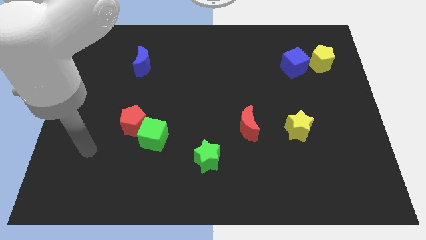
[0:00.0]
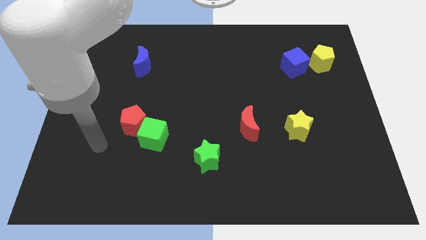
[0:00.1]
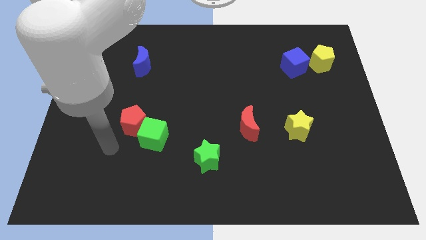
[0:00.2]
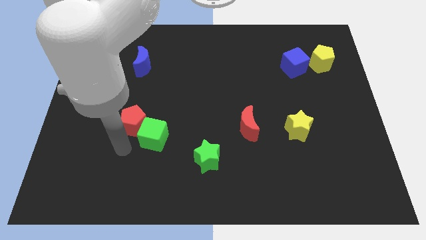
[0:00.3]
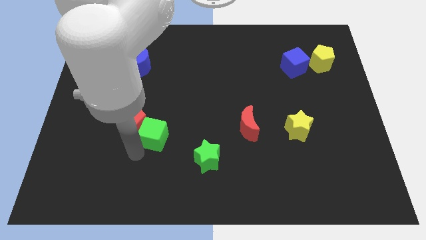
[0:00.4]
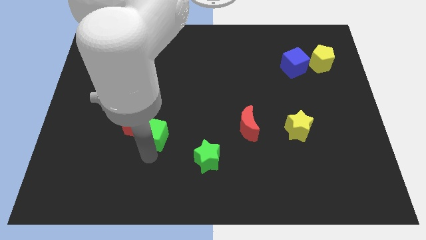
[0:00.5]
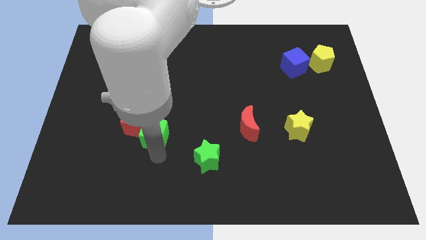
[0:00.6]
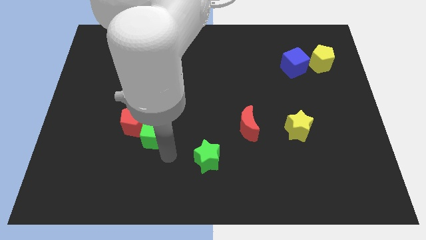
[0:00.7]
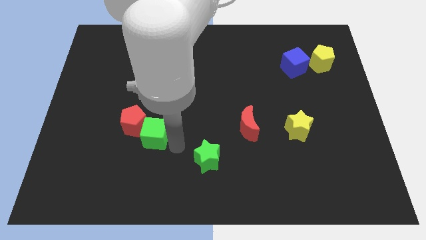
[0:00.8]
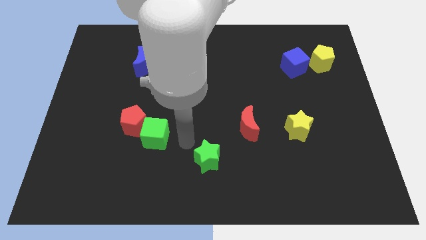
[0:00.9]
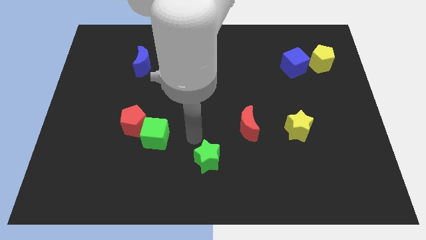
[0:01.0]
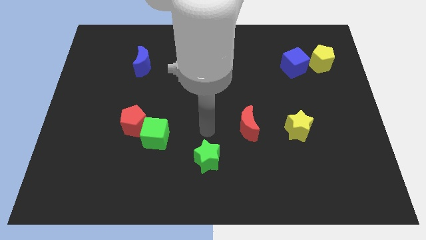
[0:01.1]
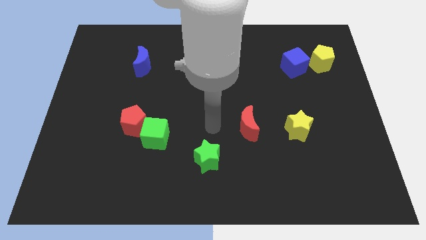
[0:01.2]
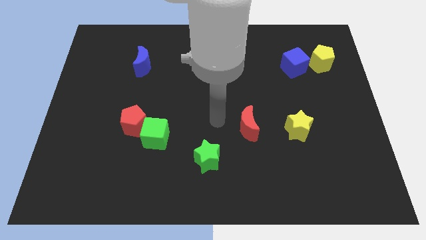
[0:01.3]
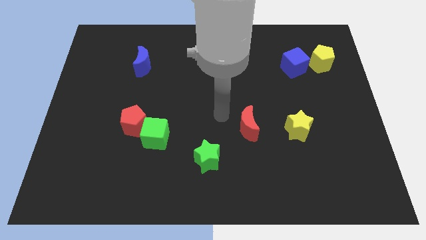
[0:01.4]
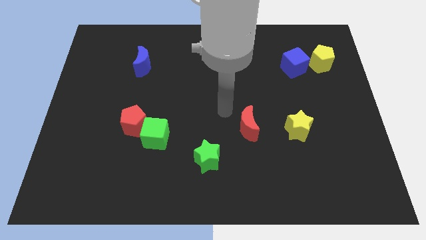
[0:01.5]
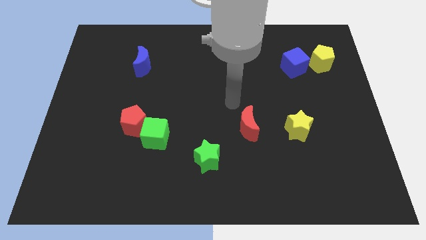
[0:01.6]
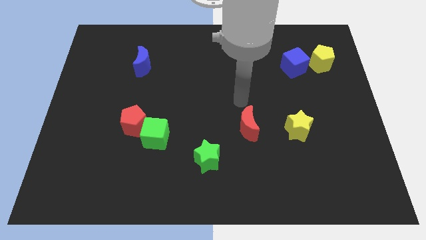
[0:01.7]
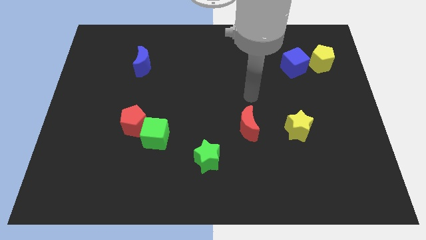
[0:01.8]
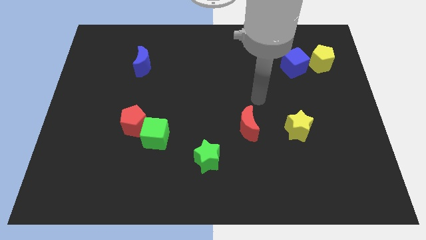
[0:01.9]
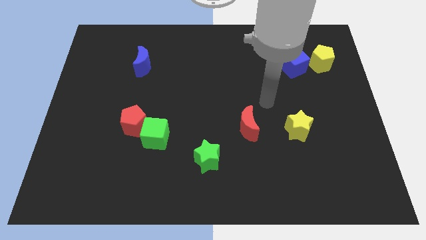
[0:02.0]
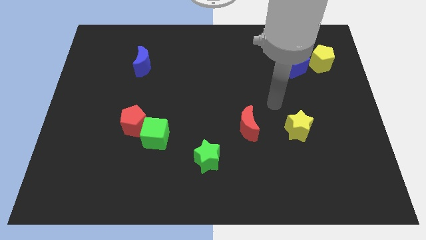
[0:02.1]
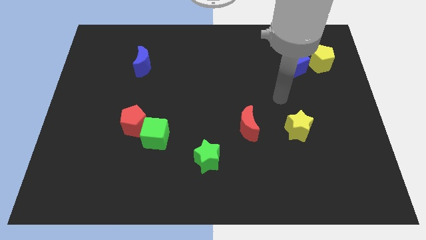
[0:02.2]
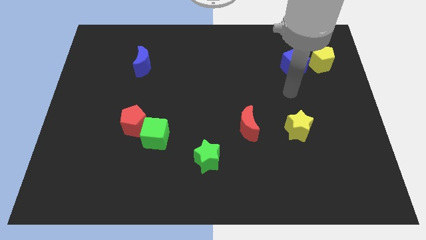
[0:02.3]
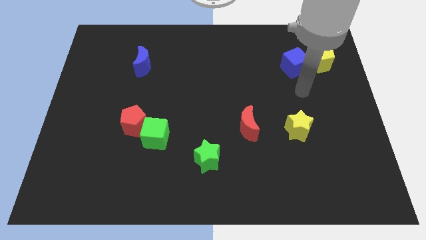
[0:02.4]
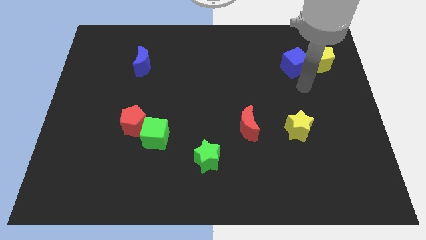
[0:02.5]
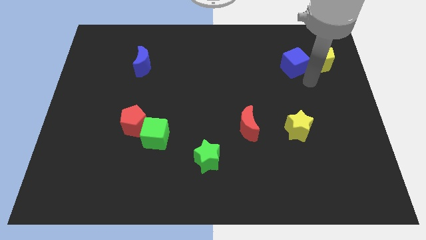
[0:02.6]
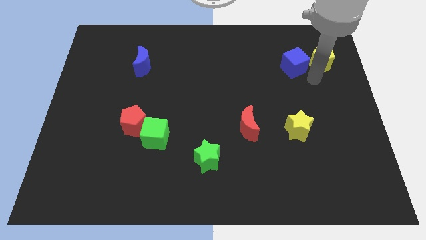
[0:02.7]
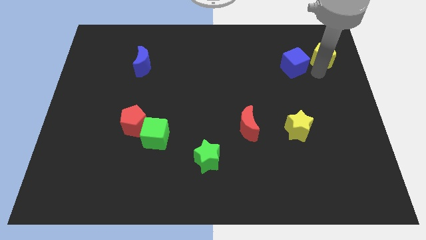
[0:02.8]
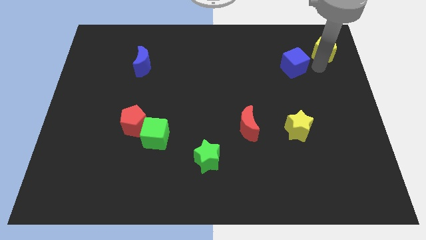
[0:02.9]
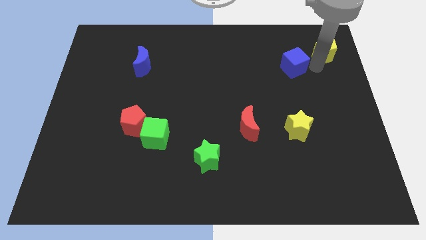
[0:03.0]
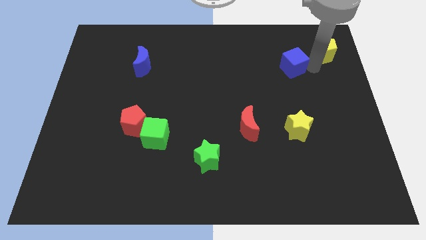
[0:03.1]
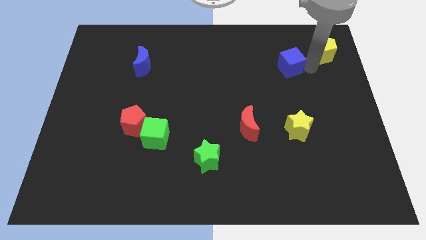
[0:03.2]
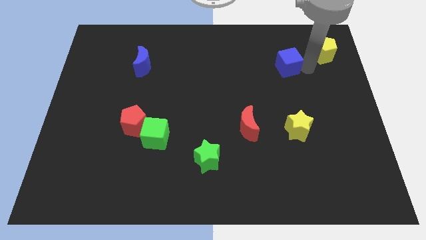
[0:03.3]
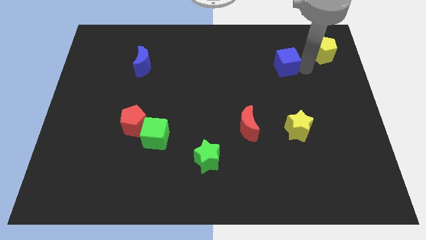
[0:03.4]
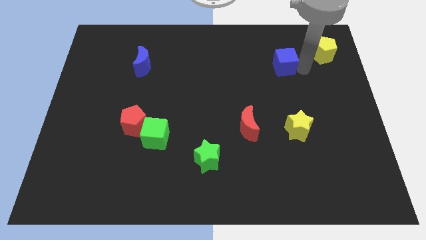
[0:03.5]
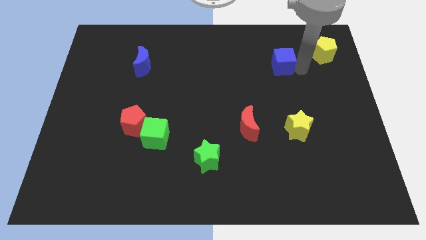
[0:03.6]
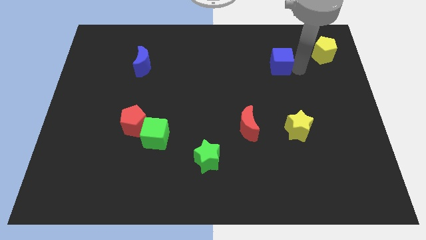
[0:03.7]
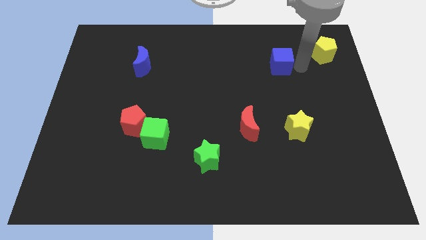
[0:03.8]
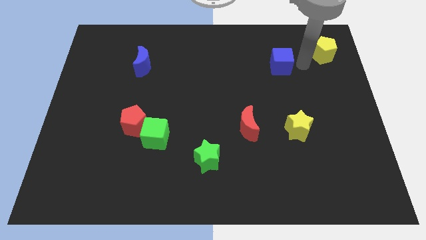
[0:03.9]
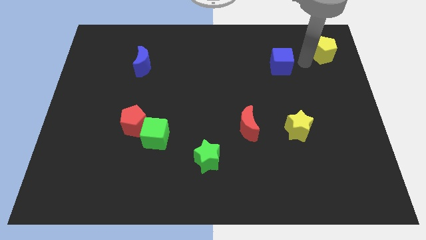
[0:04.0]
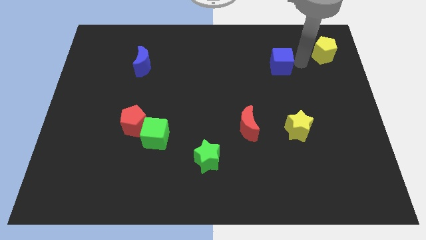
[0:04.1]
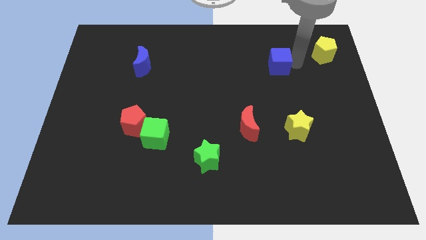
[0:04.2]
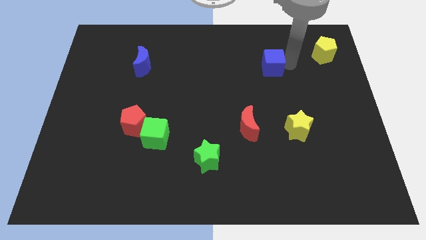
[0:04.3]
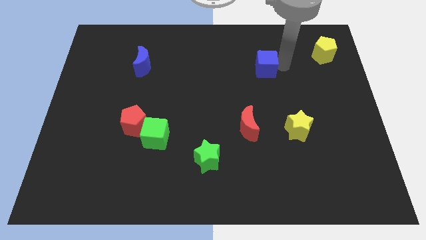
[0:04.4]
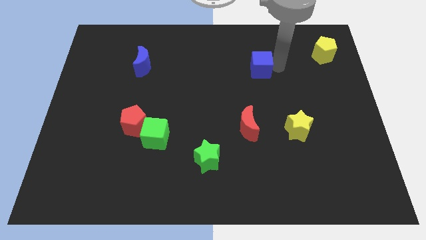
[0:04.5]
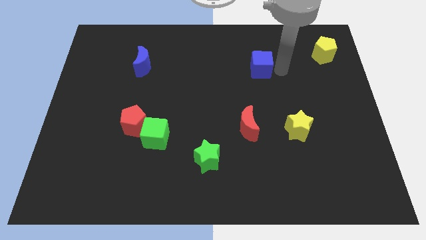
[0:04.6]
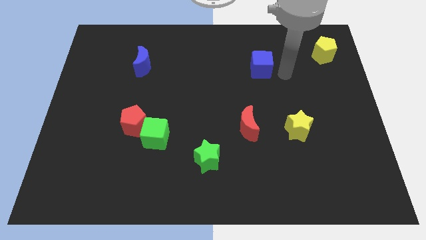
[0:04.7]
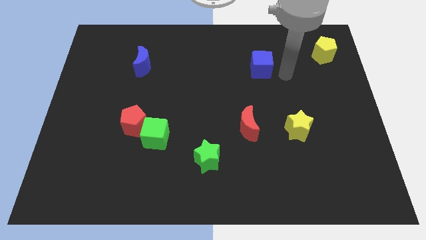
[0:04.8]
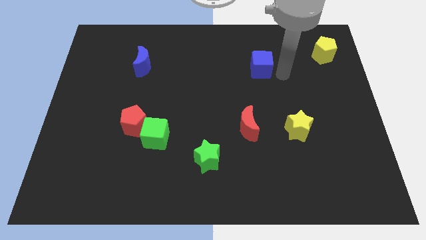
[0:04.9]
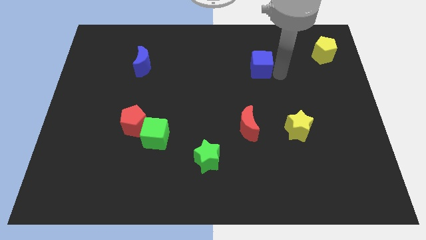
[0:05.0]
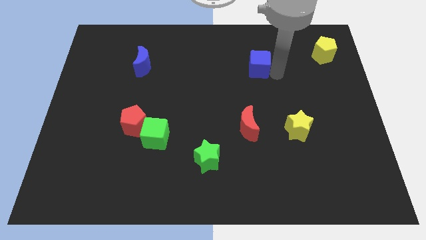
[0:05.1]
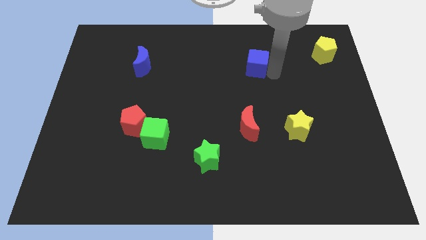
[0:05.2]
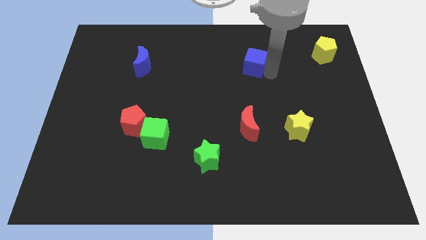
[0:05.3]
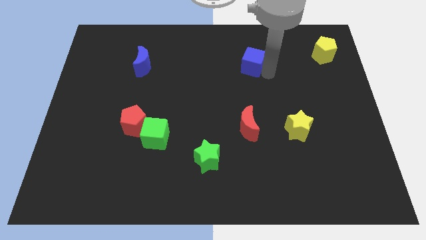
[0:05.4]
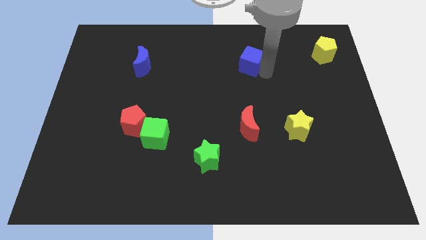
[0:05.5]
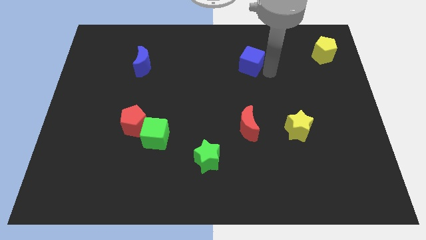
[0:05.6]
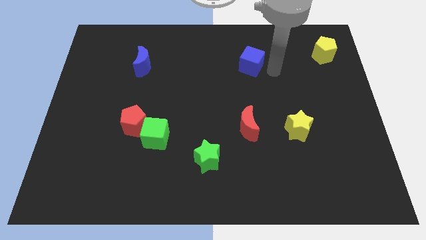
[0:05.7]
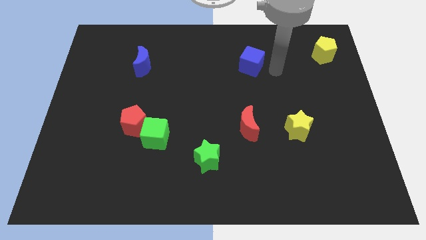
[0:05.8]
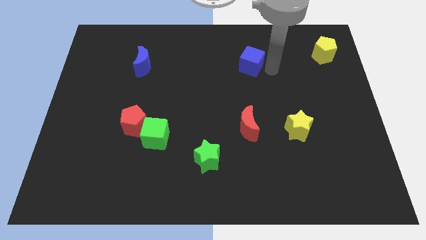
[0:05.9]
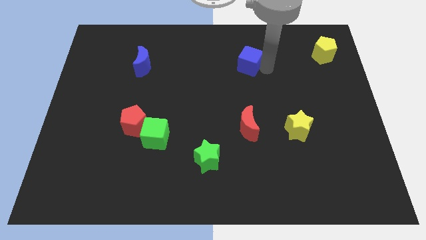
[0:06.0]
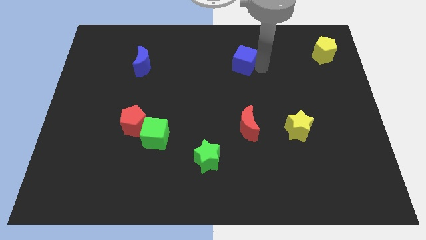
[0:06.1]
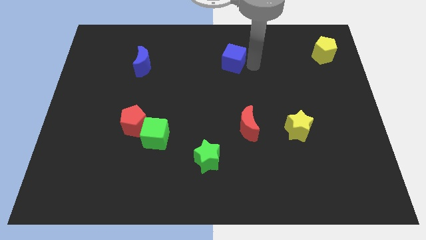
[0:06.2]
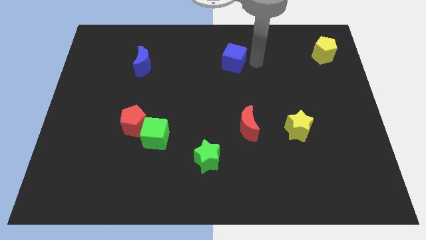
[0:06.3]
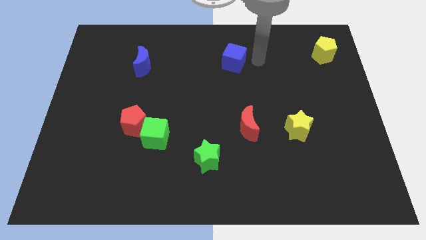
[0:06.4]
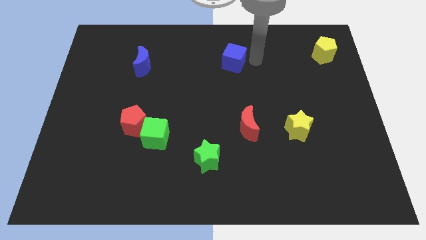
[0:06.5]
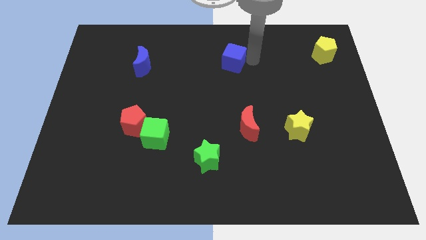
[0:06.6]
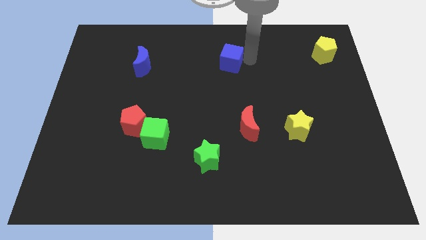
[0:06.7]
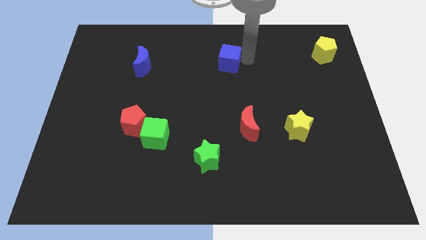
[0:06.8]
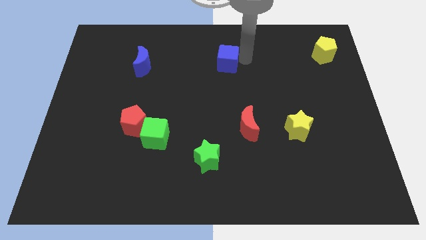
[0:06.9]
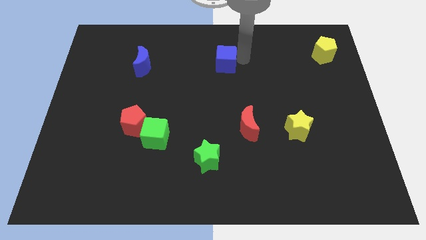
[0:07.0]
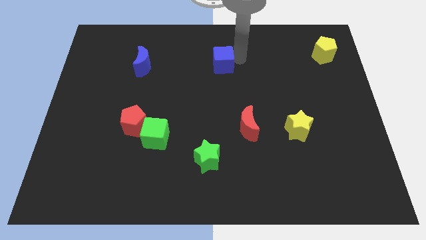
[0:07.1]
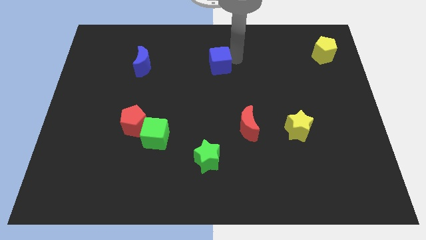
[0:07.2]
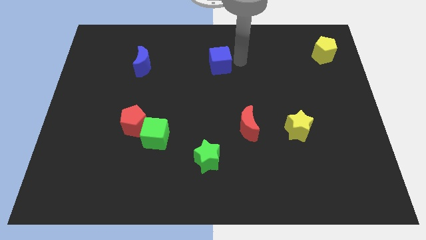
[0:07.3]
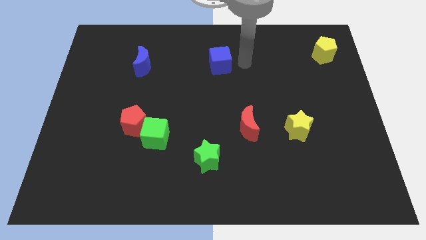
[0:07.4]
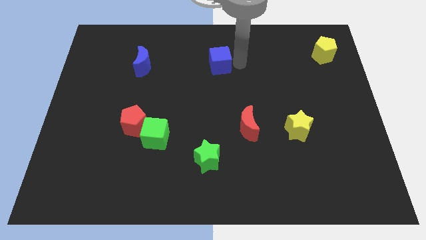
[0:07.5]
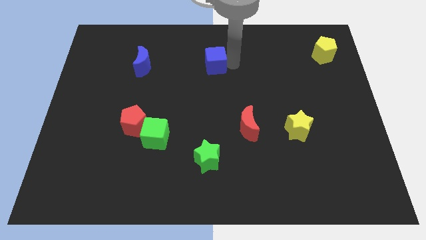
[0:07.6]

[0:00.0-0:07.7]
slide the blue cube left

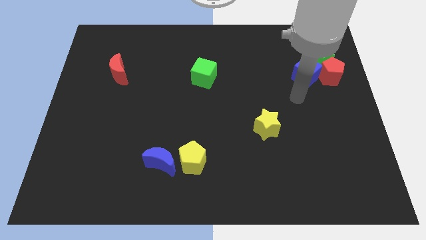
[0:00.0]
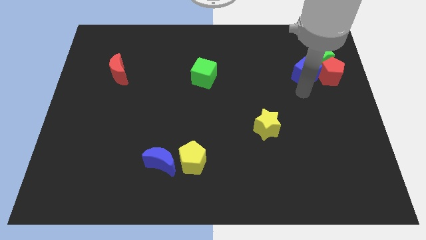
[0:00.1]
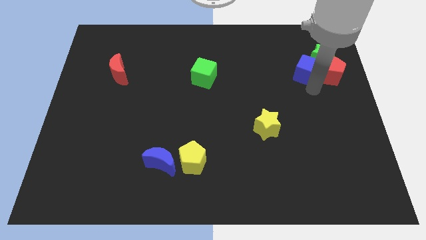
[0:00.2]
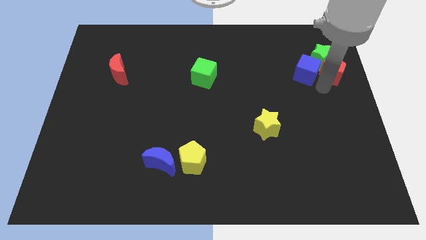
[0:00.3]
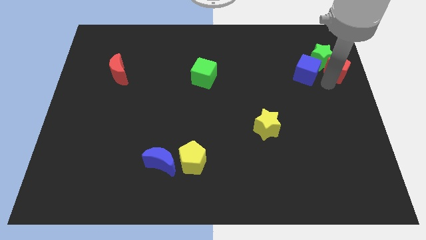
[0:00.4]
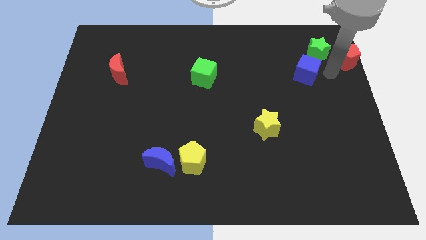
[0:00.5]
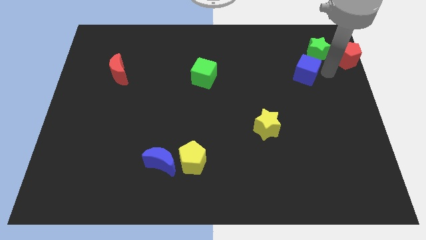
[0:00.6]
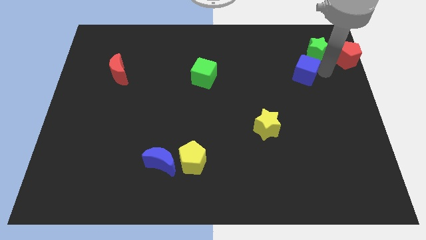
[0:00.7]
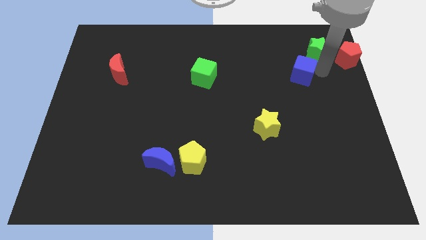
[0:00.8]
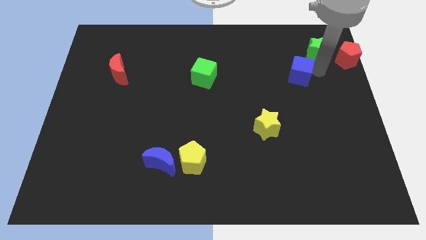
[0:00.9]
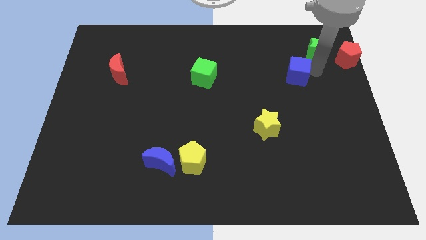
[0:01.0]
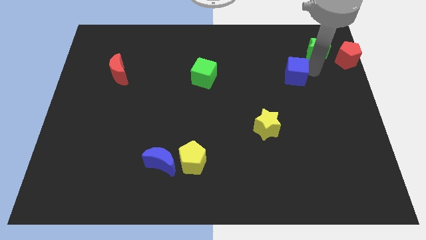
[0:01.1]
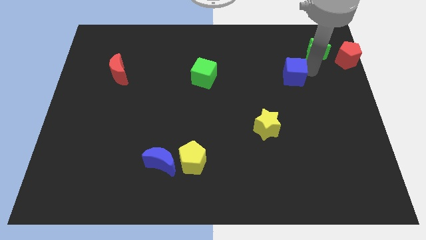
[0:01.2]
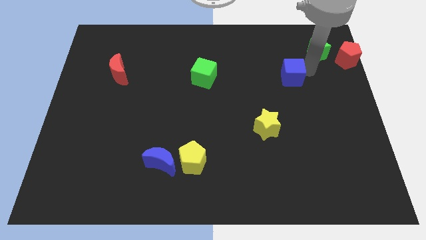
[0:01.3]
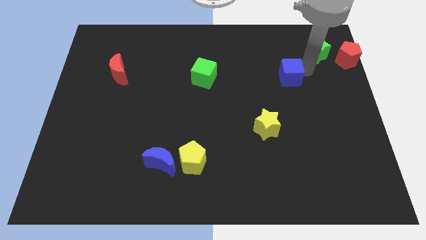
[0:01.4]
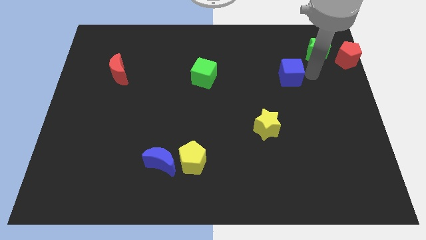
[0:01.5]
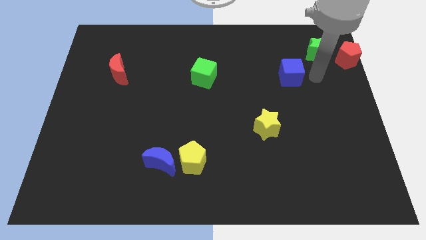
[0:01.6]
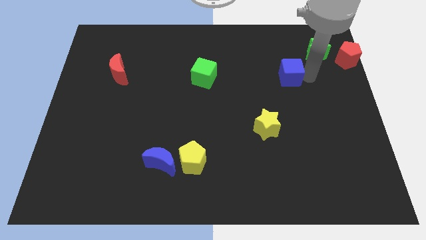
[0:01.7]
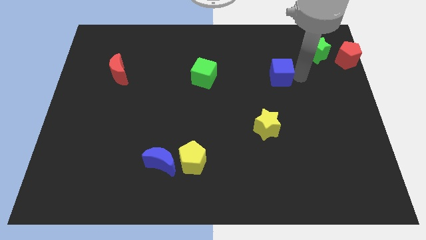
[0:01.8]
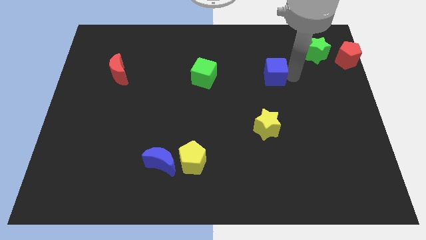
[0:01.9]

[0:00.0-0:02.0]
move the blue cube somewhat to the left
